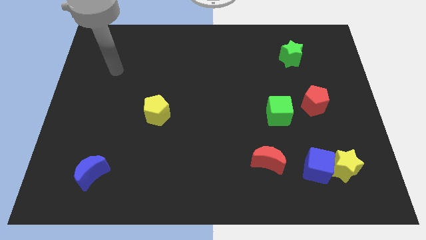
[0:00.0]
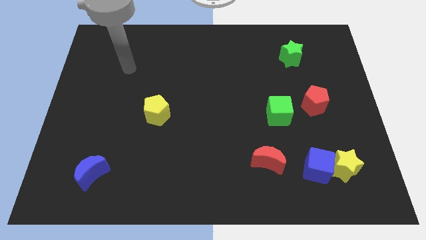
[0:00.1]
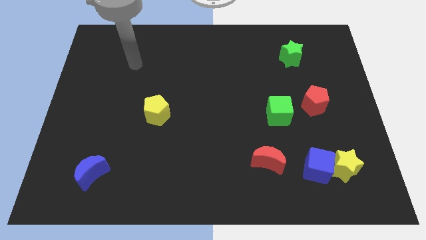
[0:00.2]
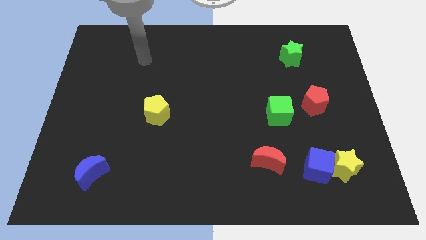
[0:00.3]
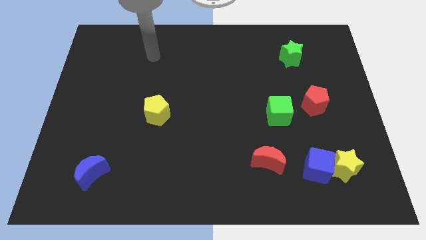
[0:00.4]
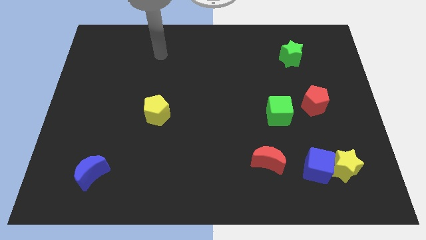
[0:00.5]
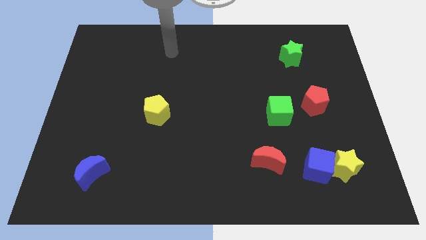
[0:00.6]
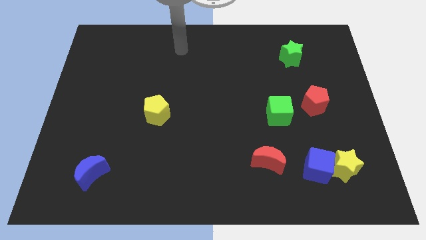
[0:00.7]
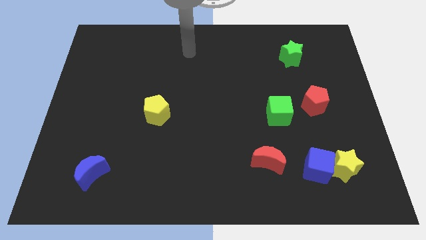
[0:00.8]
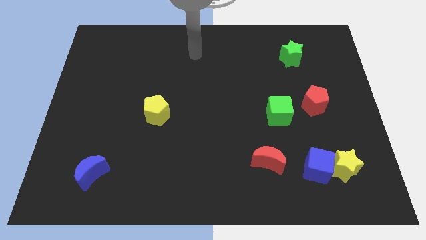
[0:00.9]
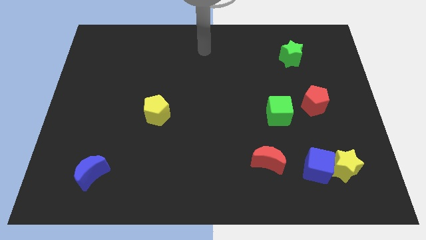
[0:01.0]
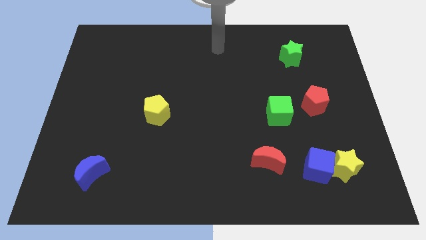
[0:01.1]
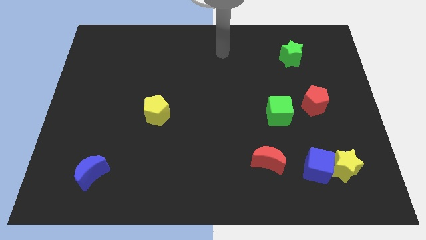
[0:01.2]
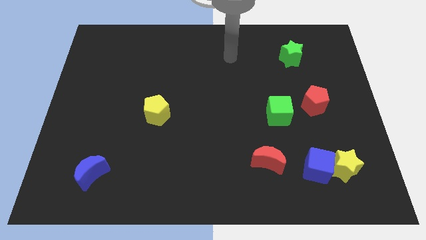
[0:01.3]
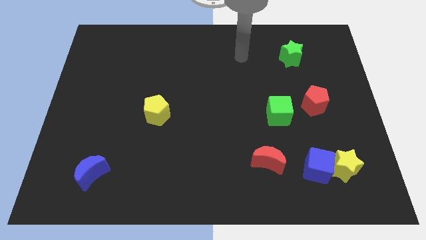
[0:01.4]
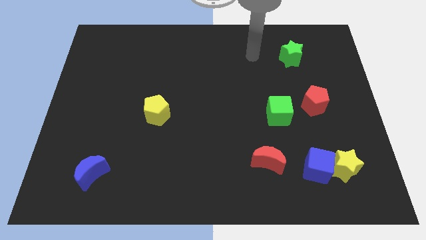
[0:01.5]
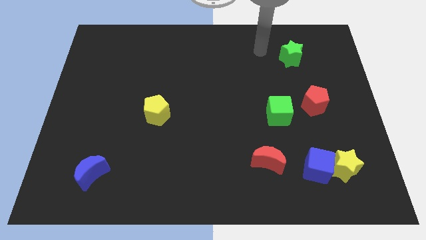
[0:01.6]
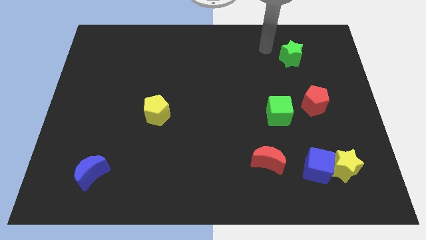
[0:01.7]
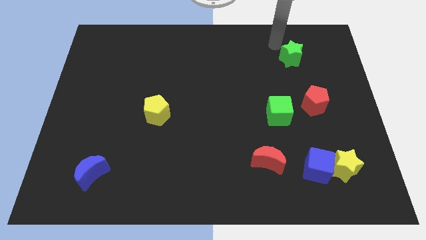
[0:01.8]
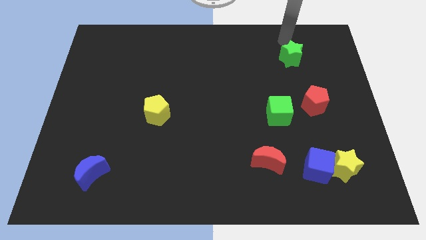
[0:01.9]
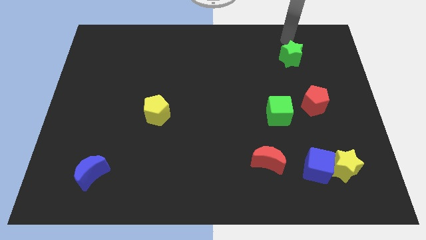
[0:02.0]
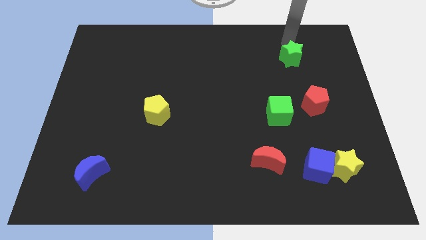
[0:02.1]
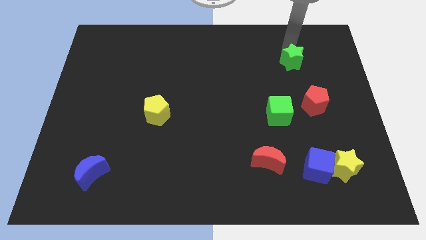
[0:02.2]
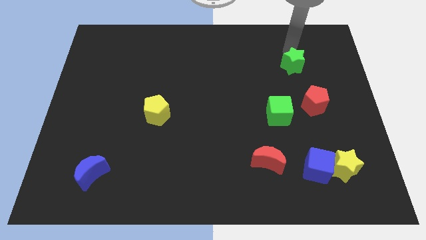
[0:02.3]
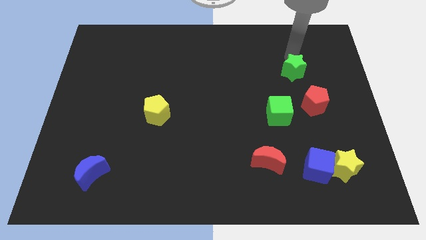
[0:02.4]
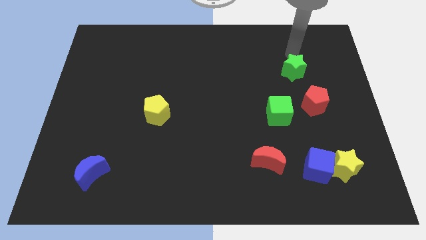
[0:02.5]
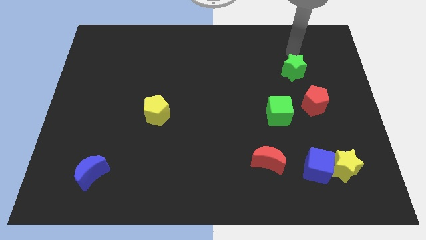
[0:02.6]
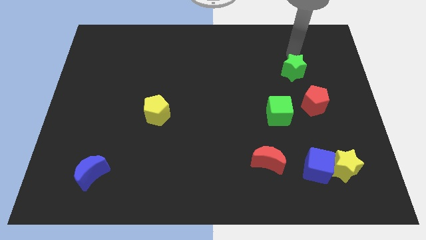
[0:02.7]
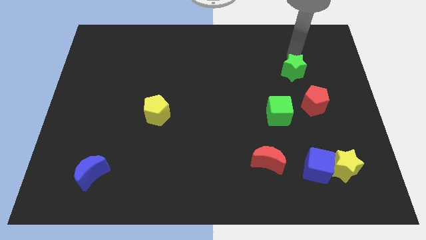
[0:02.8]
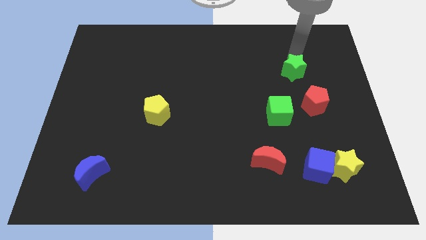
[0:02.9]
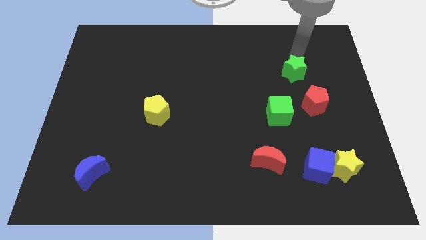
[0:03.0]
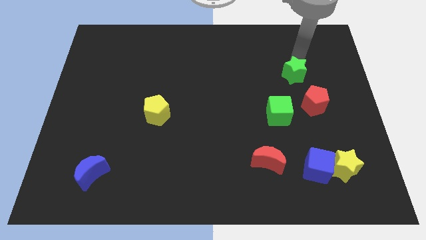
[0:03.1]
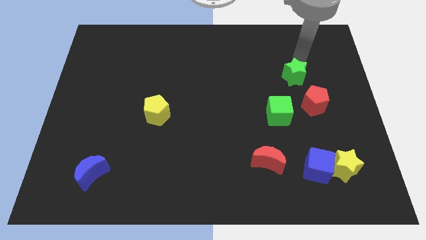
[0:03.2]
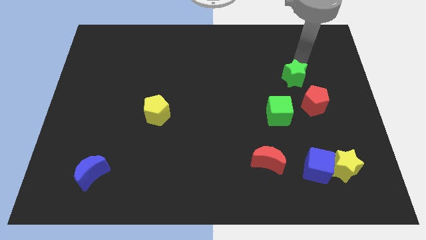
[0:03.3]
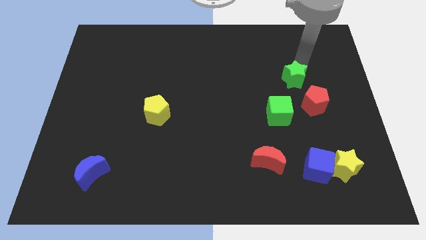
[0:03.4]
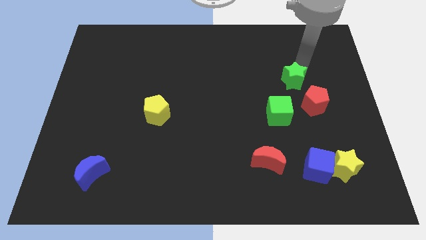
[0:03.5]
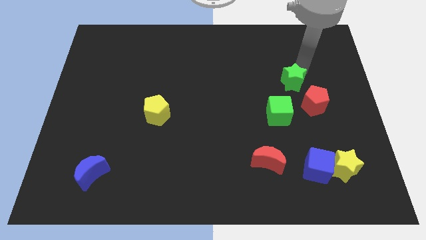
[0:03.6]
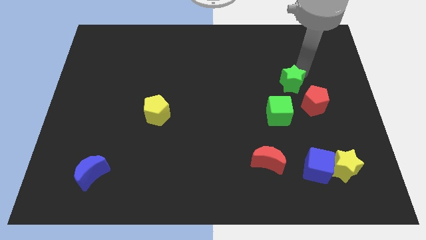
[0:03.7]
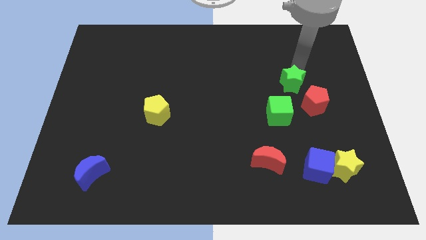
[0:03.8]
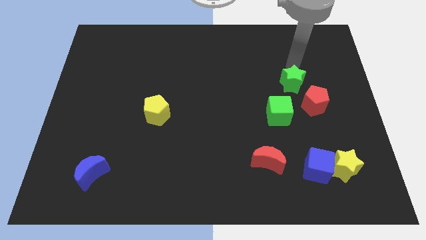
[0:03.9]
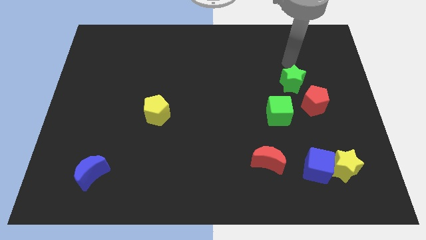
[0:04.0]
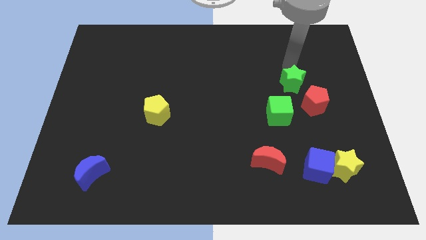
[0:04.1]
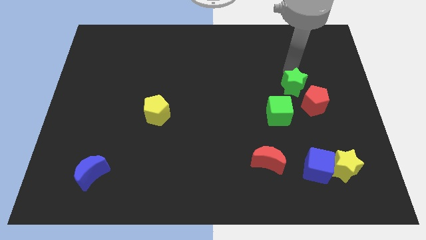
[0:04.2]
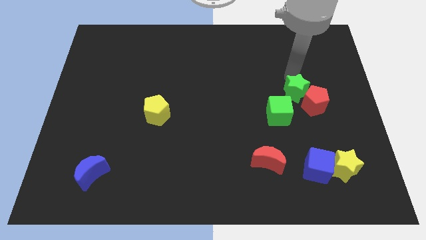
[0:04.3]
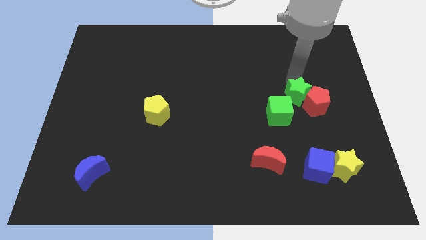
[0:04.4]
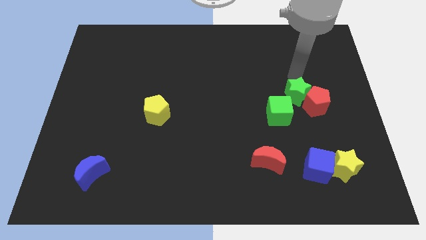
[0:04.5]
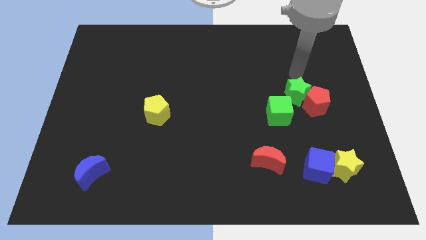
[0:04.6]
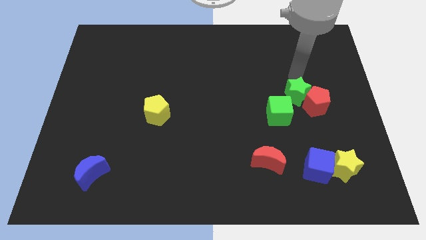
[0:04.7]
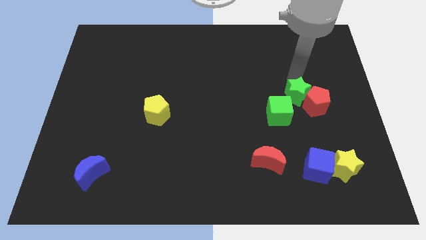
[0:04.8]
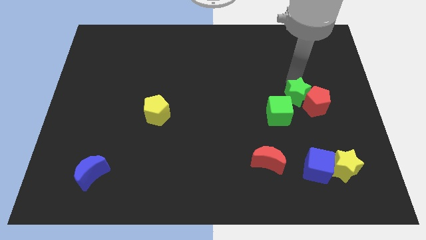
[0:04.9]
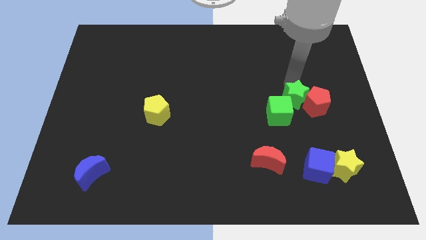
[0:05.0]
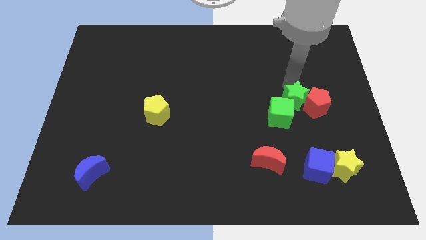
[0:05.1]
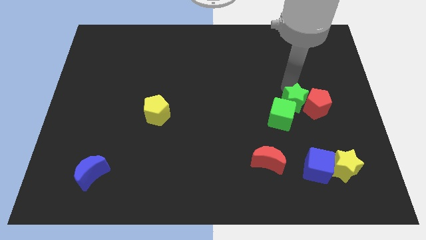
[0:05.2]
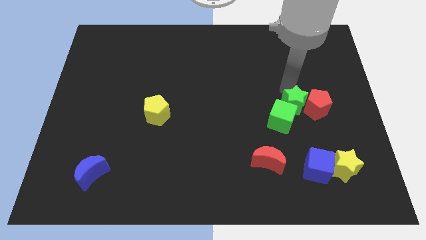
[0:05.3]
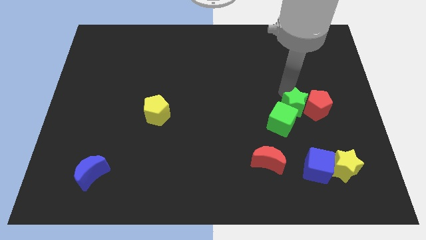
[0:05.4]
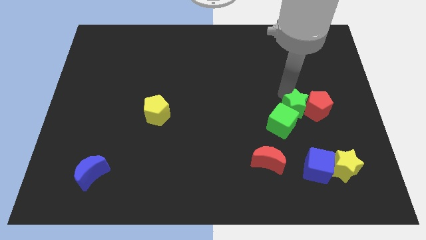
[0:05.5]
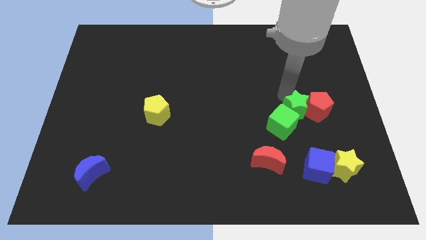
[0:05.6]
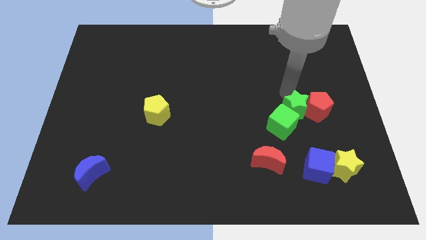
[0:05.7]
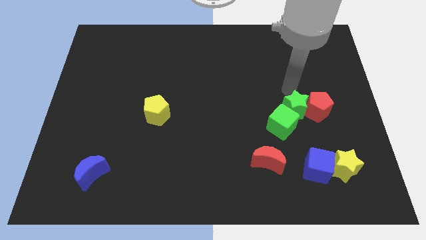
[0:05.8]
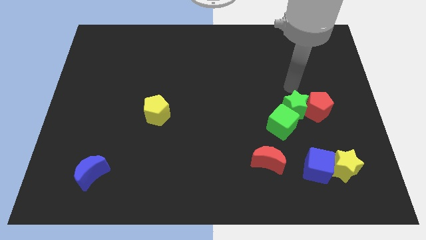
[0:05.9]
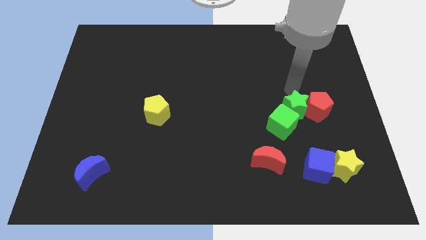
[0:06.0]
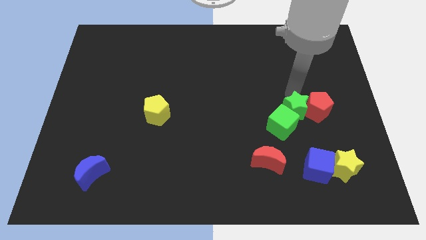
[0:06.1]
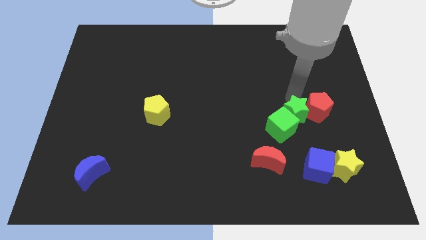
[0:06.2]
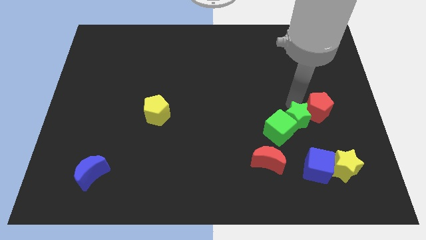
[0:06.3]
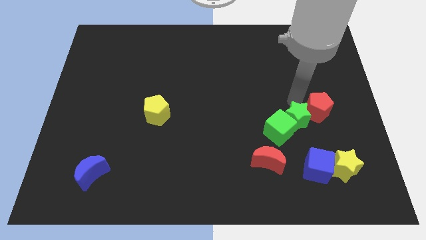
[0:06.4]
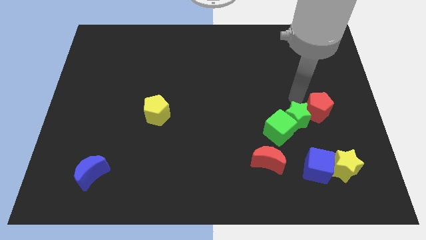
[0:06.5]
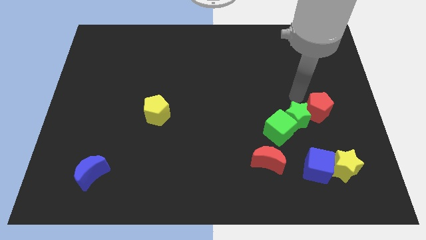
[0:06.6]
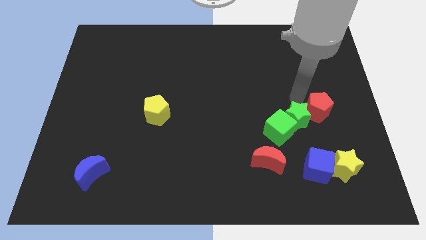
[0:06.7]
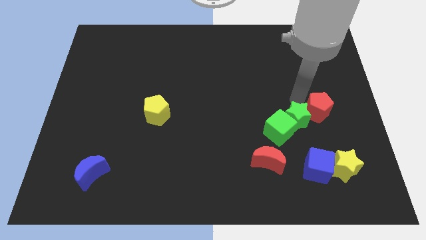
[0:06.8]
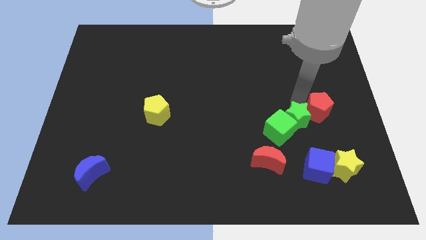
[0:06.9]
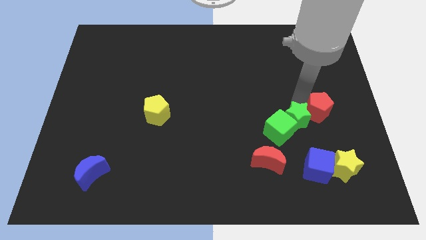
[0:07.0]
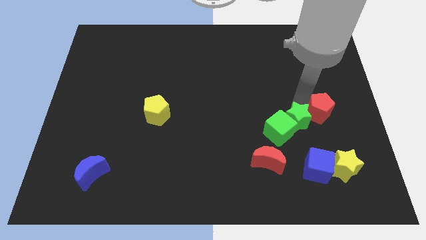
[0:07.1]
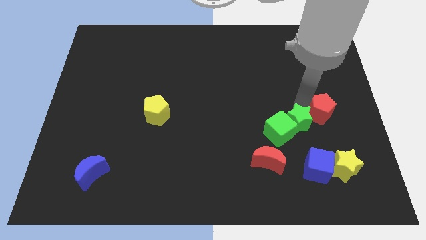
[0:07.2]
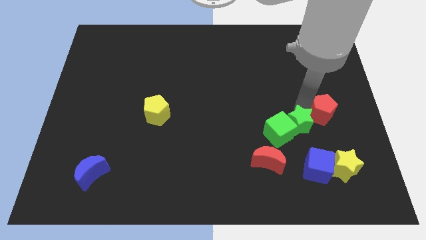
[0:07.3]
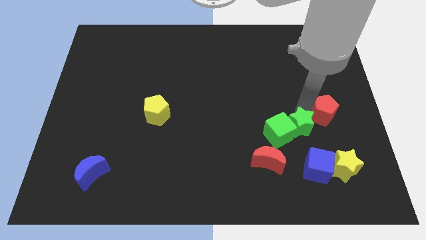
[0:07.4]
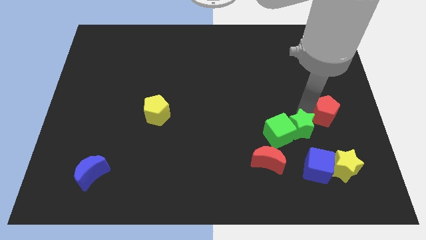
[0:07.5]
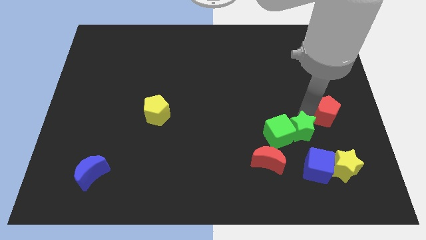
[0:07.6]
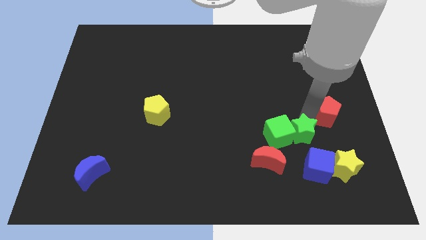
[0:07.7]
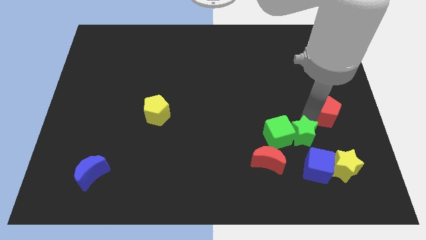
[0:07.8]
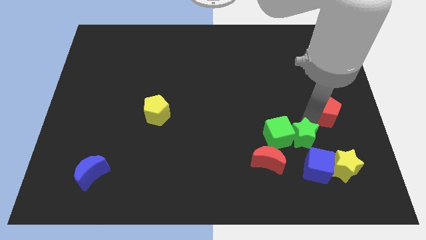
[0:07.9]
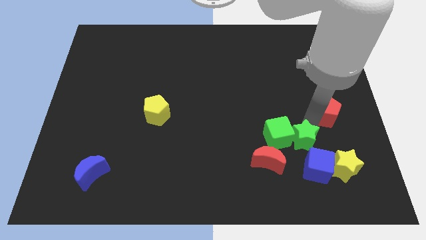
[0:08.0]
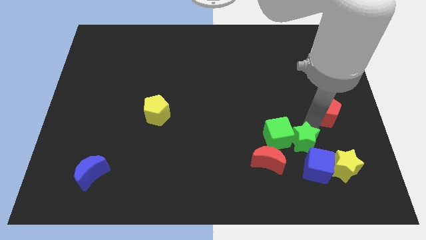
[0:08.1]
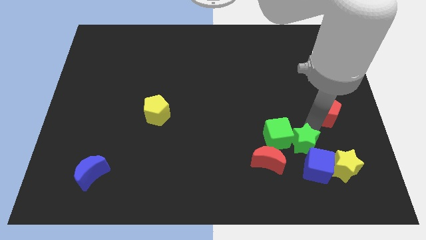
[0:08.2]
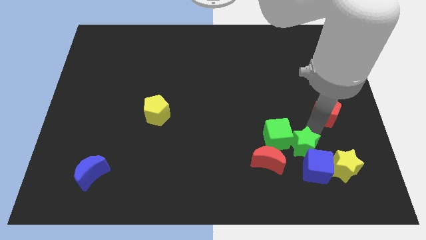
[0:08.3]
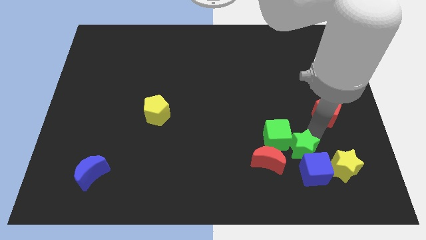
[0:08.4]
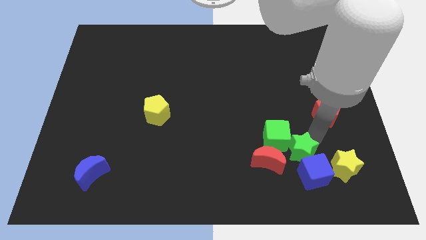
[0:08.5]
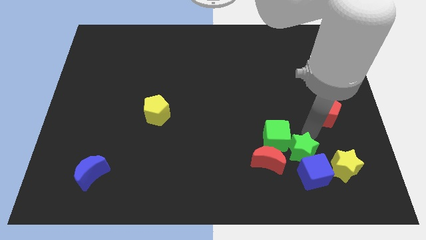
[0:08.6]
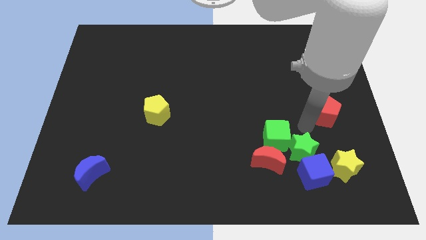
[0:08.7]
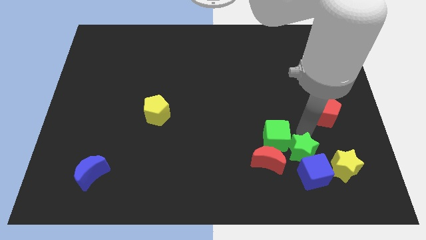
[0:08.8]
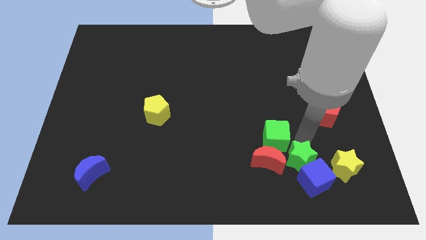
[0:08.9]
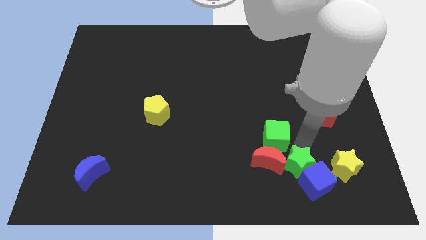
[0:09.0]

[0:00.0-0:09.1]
push the green star to the bottom right of the red moon
